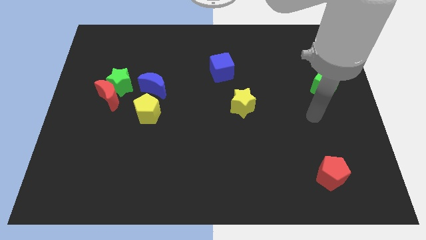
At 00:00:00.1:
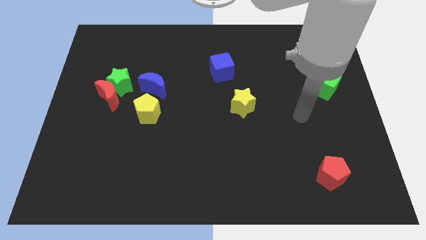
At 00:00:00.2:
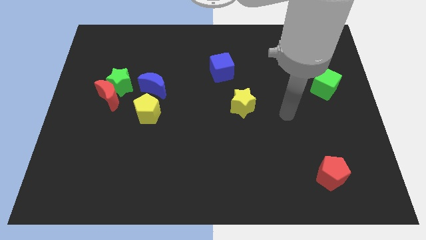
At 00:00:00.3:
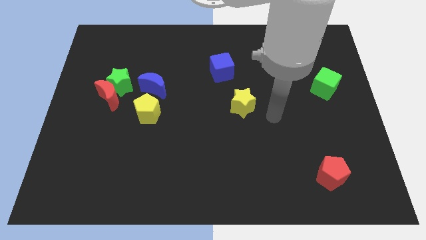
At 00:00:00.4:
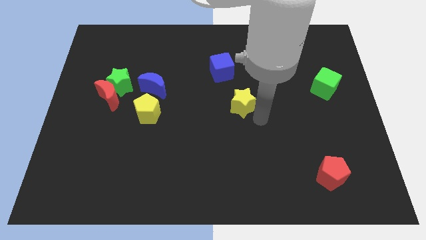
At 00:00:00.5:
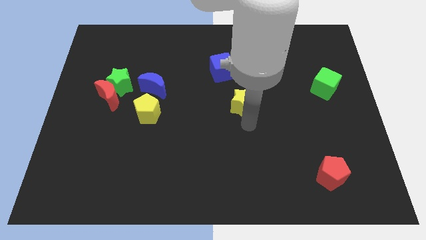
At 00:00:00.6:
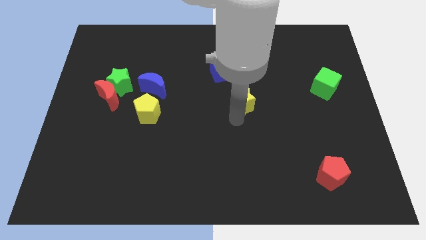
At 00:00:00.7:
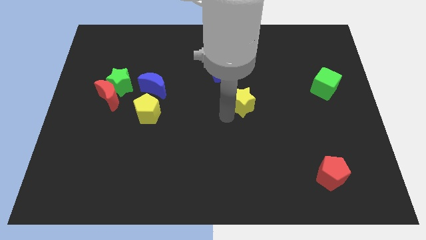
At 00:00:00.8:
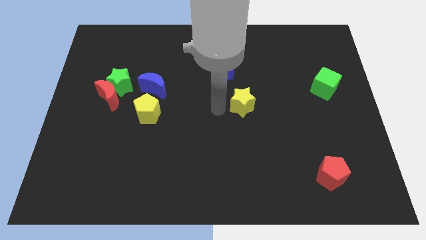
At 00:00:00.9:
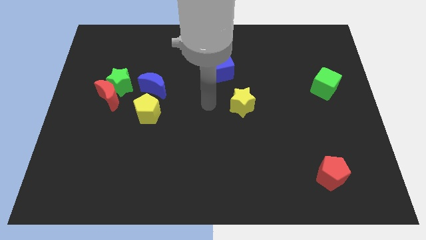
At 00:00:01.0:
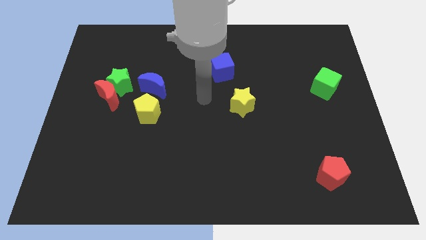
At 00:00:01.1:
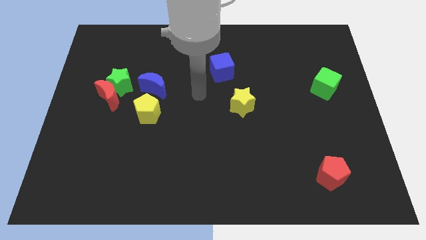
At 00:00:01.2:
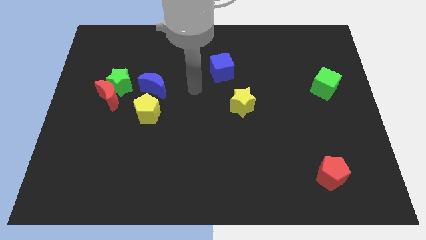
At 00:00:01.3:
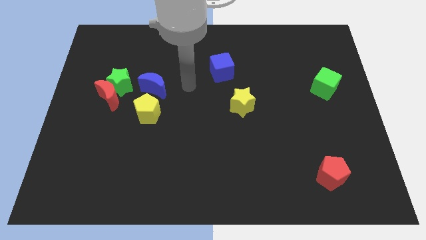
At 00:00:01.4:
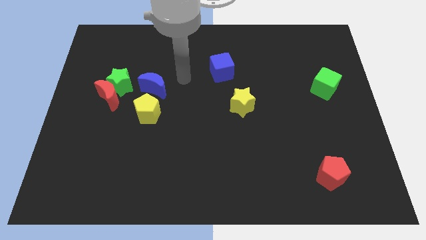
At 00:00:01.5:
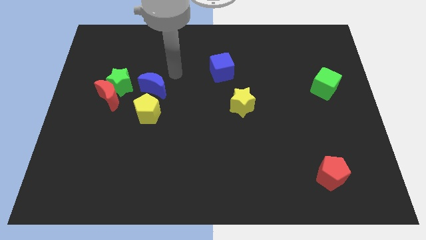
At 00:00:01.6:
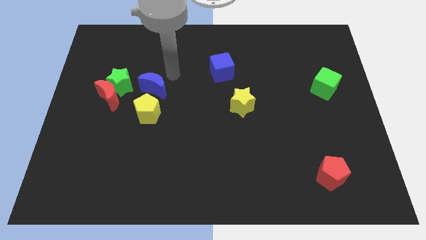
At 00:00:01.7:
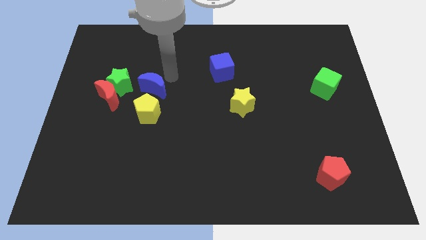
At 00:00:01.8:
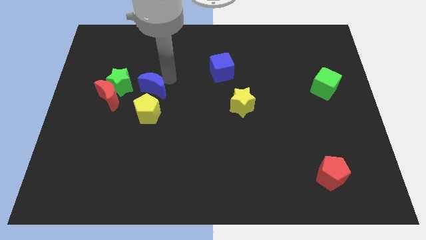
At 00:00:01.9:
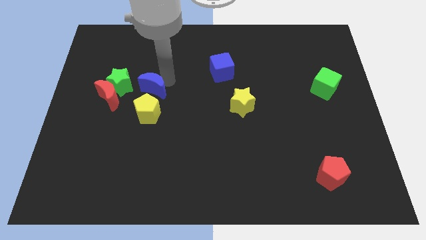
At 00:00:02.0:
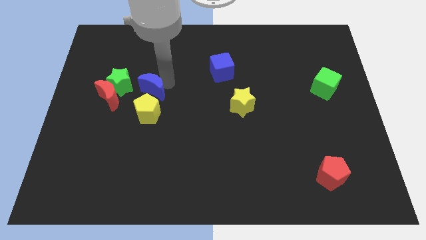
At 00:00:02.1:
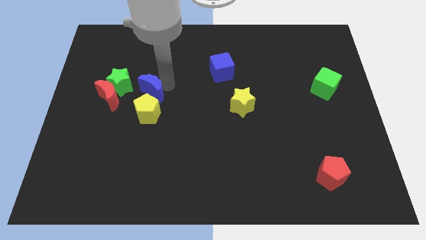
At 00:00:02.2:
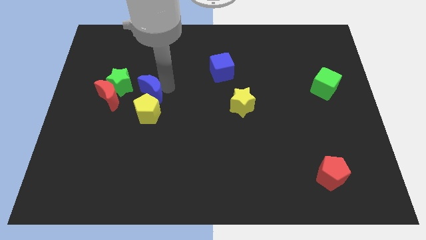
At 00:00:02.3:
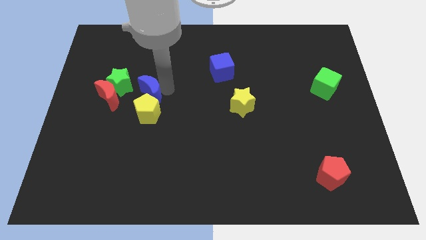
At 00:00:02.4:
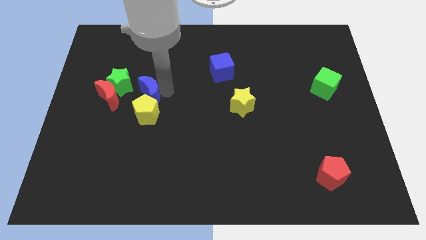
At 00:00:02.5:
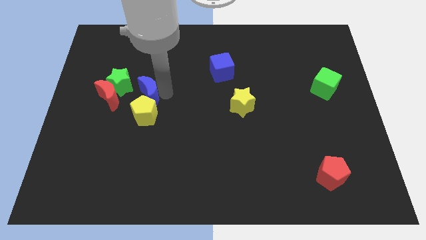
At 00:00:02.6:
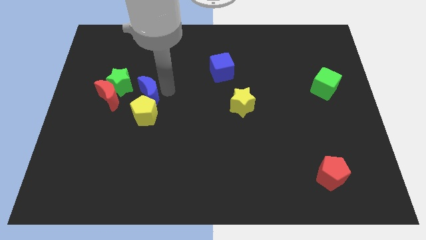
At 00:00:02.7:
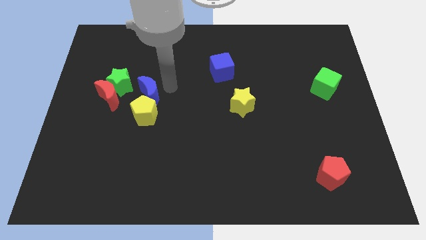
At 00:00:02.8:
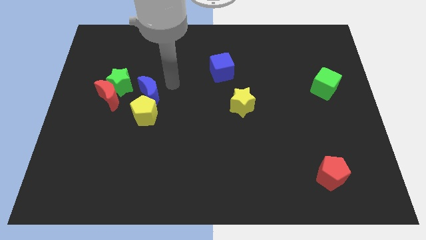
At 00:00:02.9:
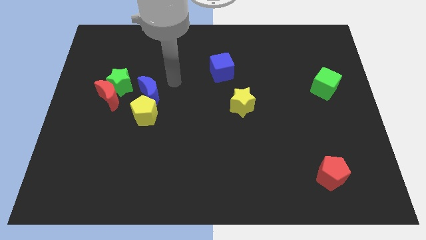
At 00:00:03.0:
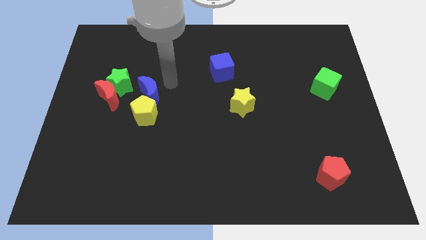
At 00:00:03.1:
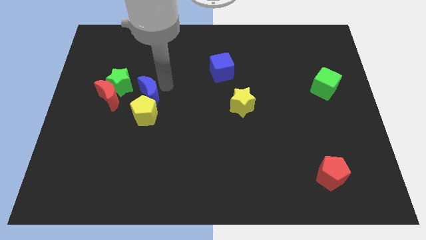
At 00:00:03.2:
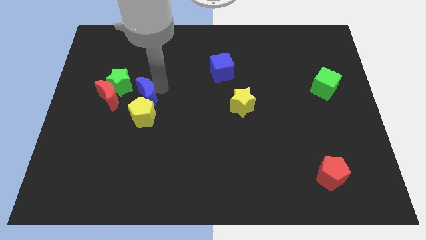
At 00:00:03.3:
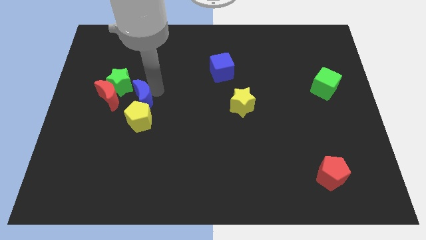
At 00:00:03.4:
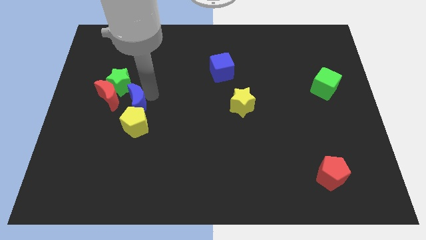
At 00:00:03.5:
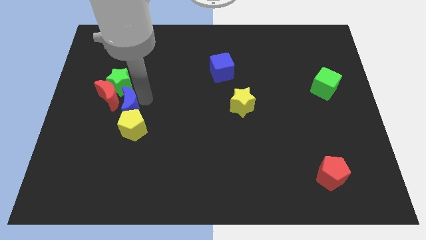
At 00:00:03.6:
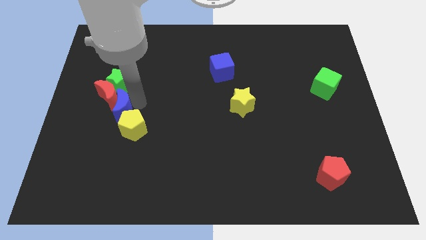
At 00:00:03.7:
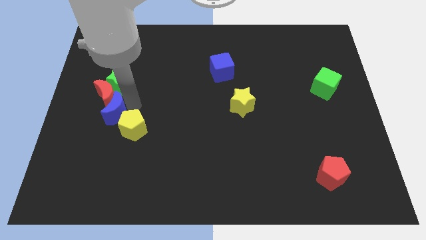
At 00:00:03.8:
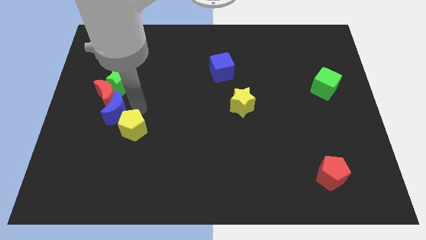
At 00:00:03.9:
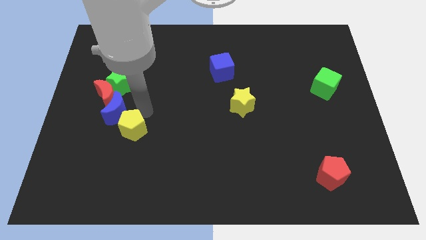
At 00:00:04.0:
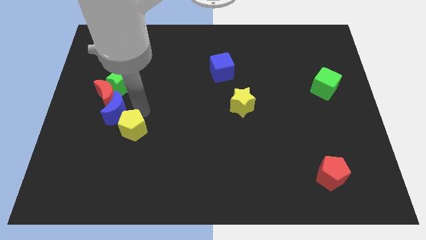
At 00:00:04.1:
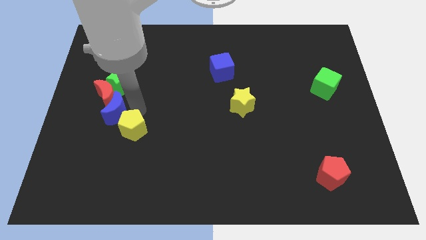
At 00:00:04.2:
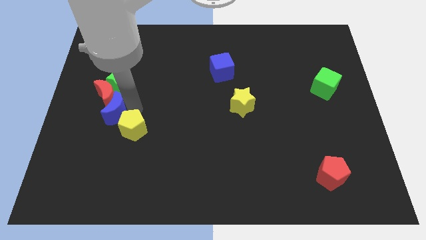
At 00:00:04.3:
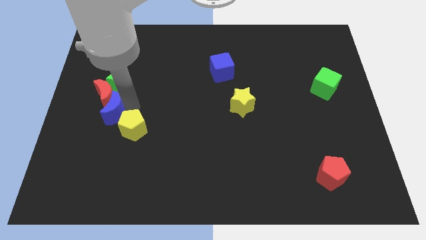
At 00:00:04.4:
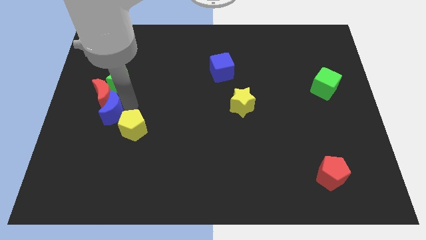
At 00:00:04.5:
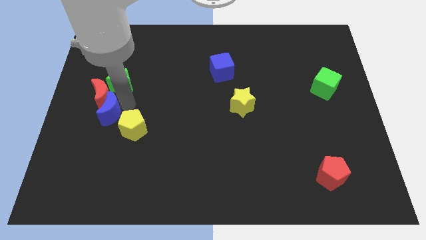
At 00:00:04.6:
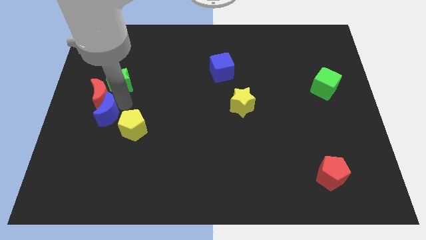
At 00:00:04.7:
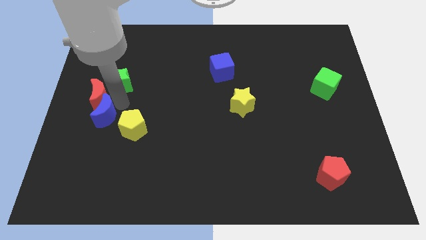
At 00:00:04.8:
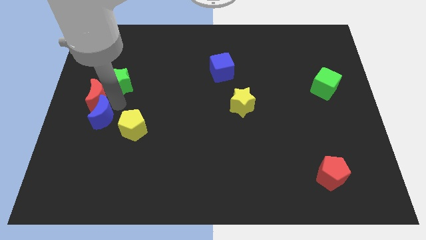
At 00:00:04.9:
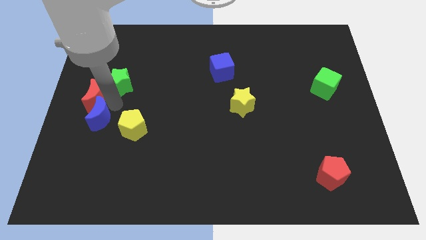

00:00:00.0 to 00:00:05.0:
put the blue moon to the center left

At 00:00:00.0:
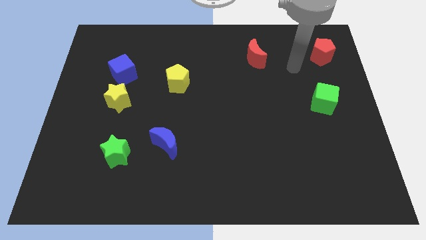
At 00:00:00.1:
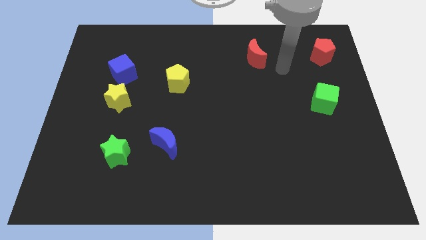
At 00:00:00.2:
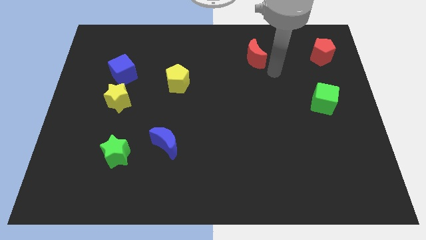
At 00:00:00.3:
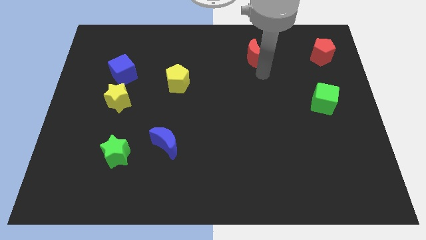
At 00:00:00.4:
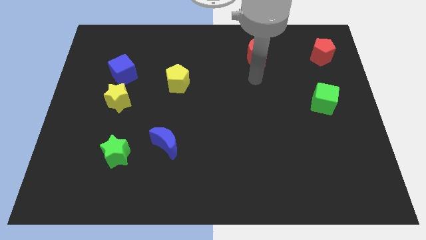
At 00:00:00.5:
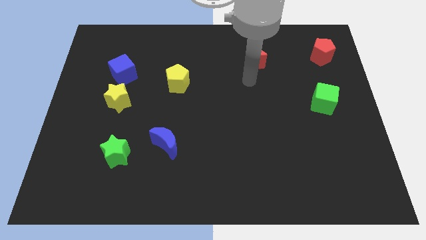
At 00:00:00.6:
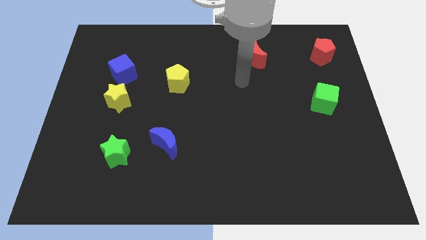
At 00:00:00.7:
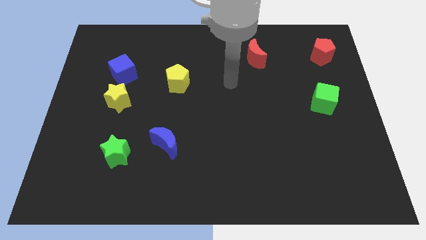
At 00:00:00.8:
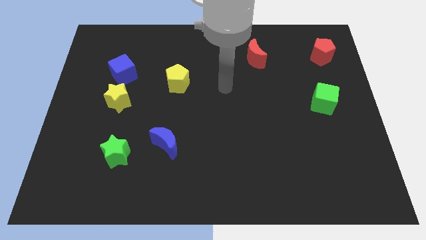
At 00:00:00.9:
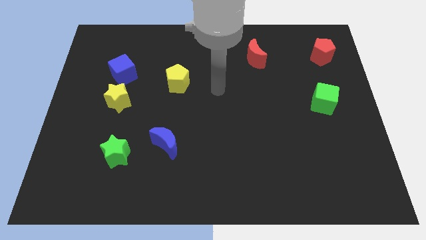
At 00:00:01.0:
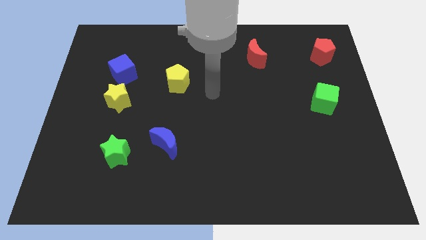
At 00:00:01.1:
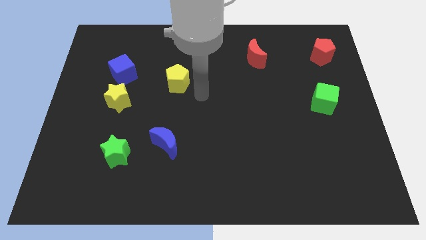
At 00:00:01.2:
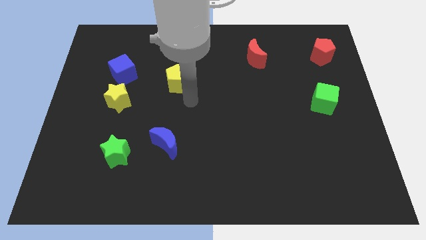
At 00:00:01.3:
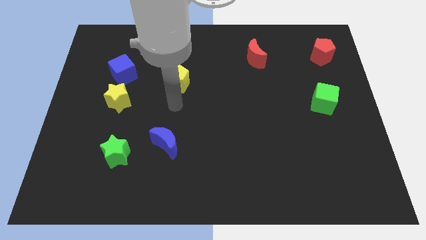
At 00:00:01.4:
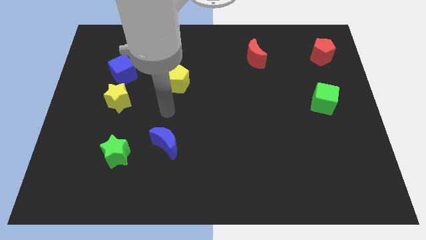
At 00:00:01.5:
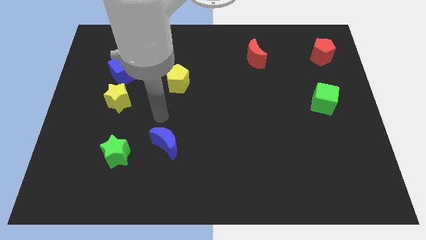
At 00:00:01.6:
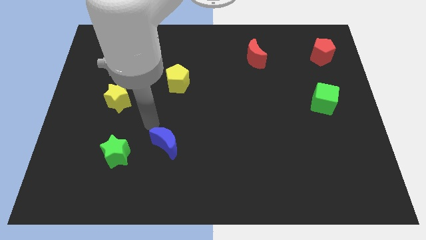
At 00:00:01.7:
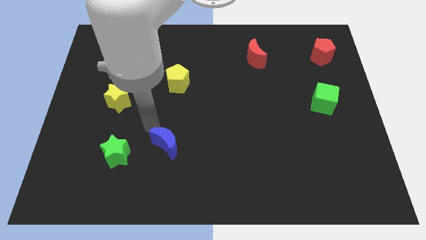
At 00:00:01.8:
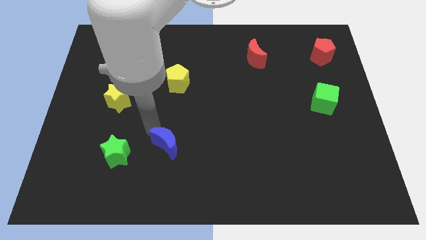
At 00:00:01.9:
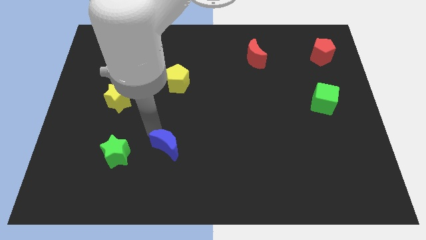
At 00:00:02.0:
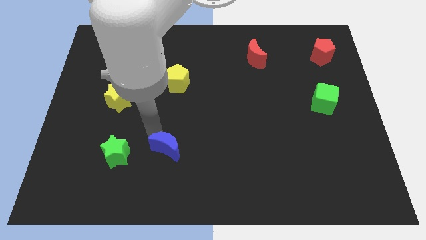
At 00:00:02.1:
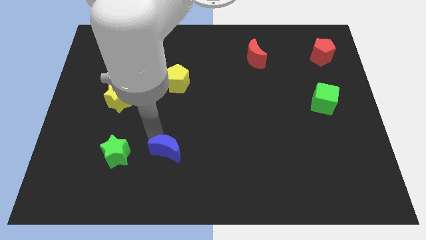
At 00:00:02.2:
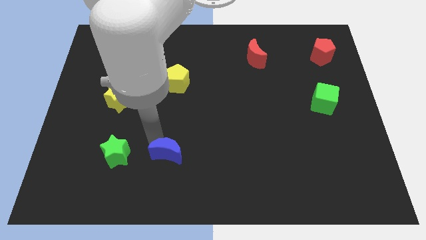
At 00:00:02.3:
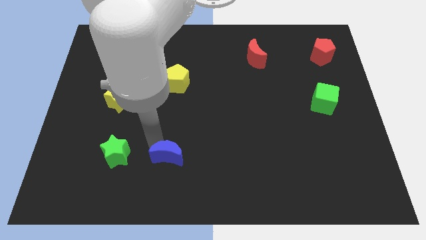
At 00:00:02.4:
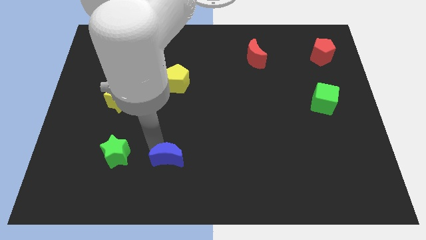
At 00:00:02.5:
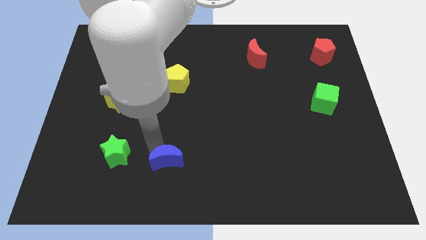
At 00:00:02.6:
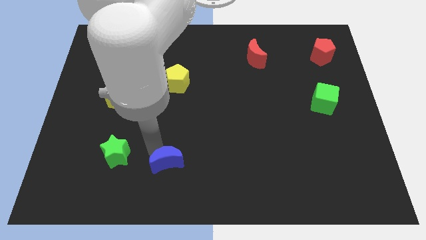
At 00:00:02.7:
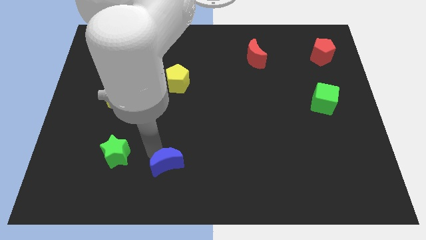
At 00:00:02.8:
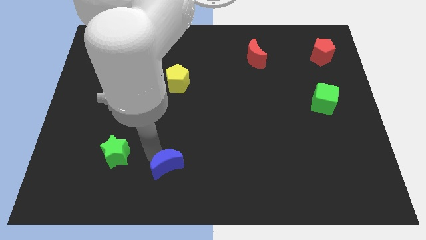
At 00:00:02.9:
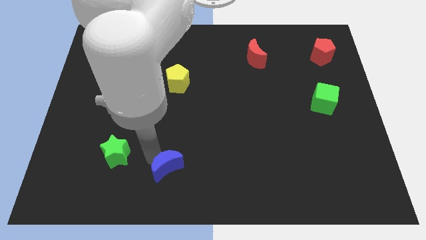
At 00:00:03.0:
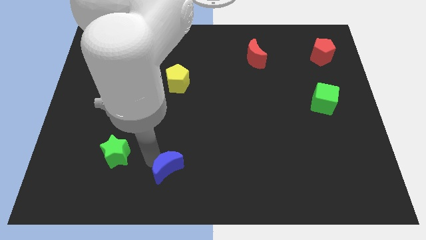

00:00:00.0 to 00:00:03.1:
put the blue moon to the bottom side
